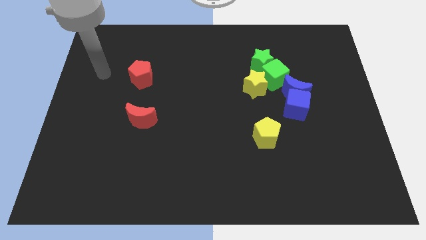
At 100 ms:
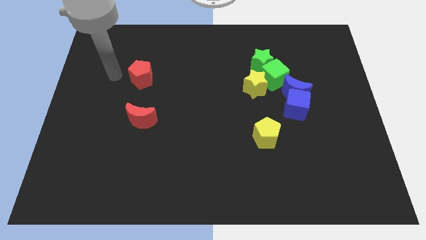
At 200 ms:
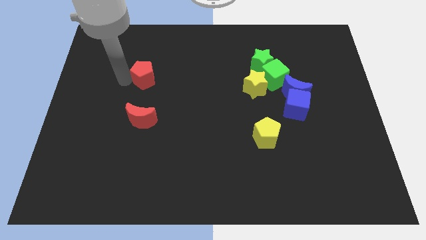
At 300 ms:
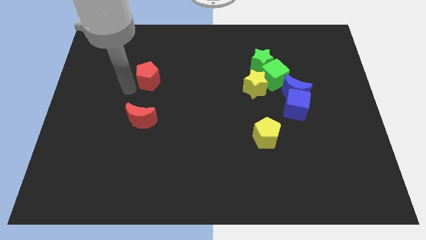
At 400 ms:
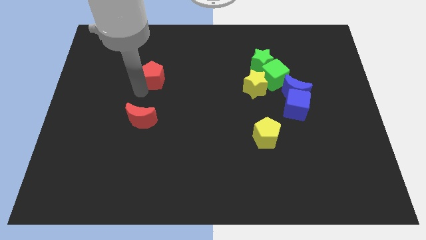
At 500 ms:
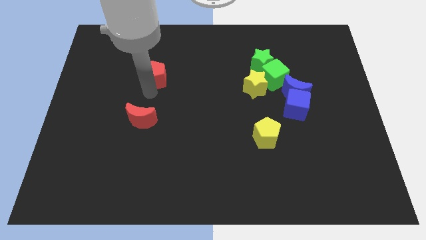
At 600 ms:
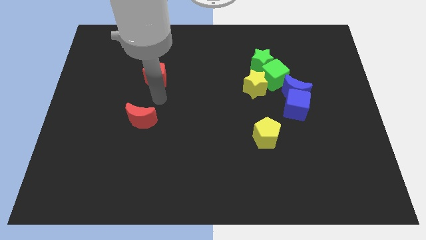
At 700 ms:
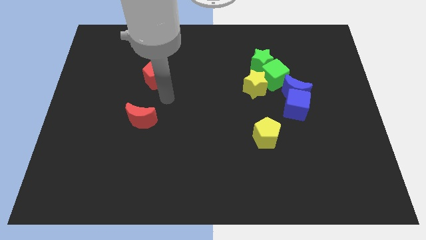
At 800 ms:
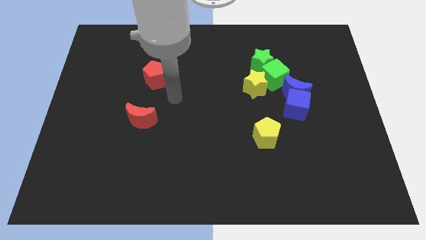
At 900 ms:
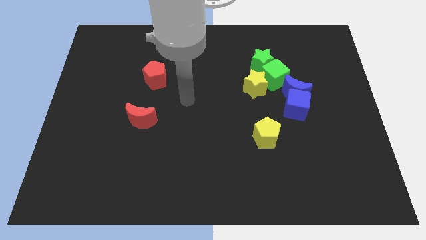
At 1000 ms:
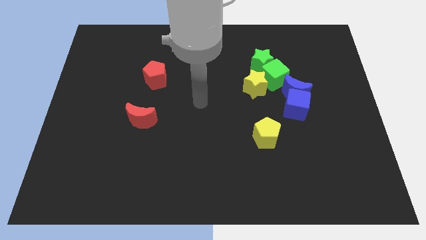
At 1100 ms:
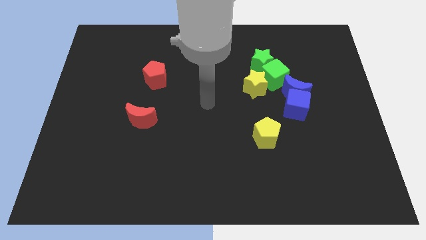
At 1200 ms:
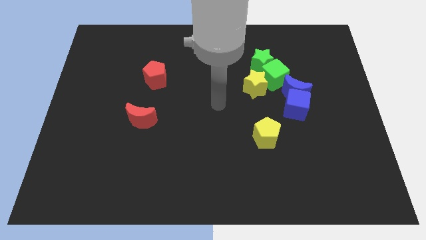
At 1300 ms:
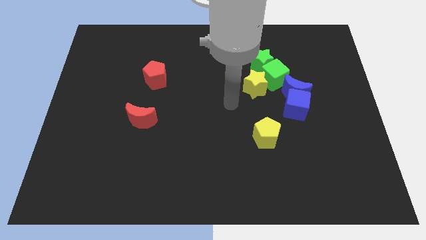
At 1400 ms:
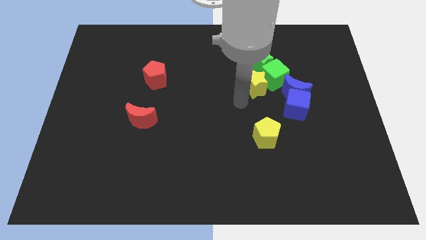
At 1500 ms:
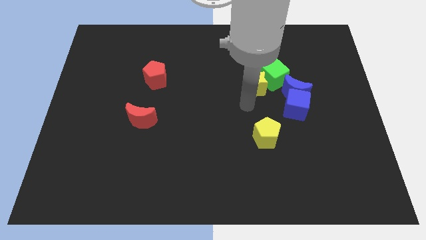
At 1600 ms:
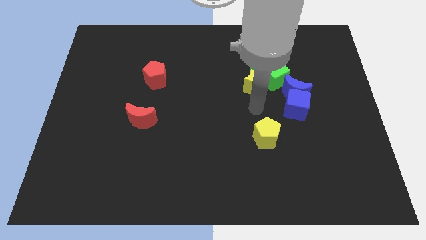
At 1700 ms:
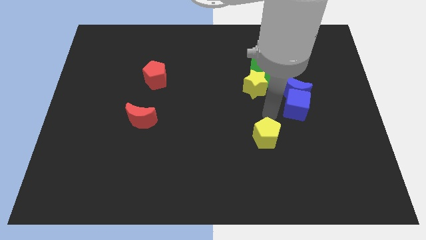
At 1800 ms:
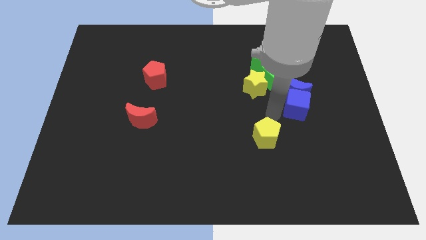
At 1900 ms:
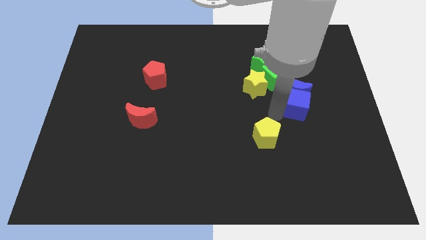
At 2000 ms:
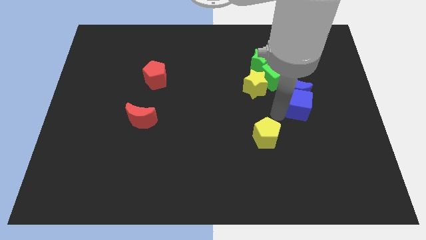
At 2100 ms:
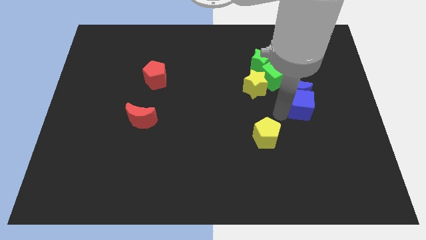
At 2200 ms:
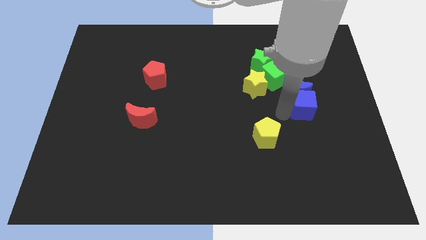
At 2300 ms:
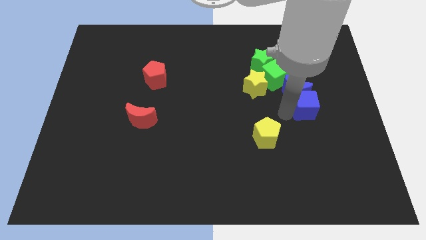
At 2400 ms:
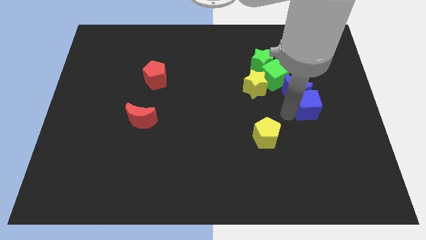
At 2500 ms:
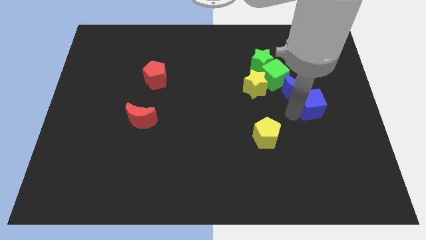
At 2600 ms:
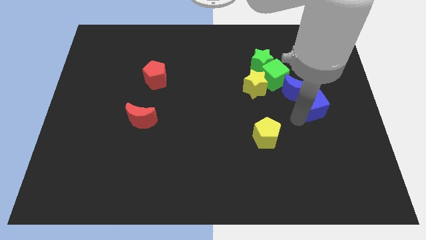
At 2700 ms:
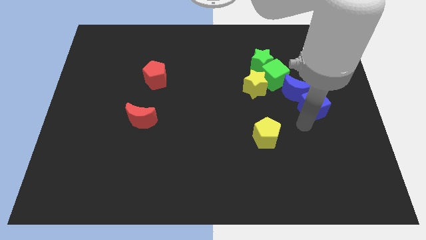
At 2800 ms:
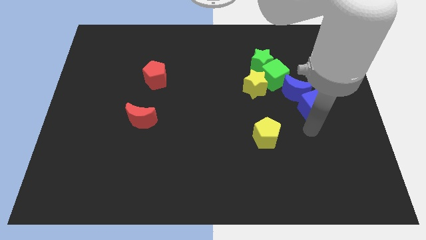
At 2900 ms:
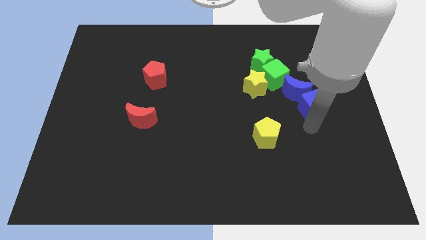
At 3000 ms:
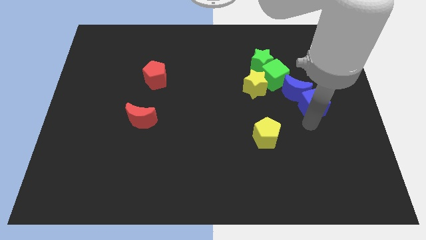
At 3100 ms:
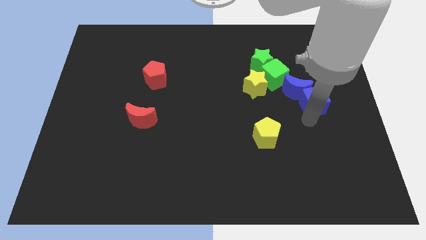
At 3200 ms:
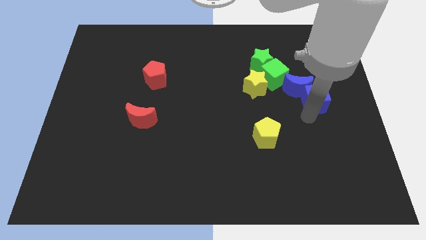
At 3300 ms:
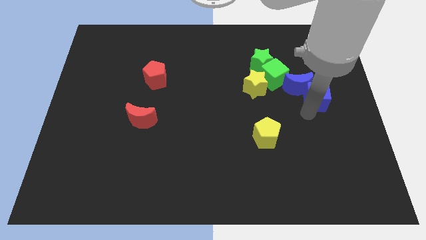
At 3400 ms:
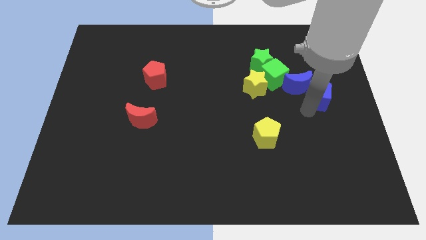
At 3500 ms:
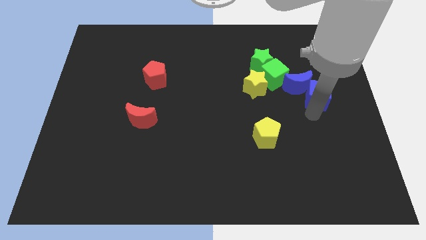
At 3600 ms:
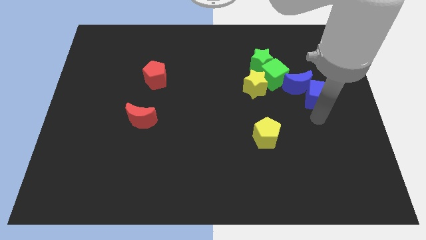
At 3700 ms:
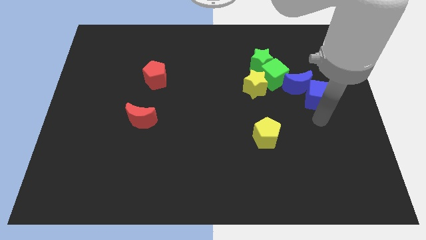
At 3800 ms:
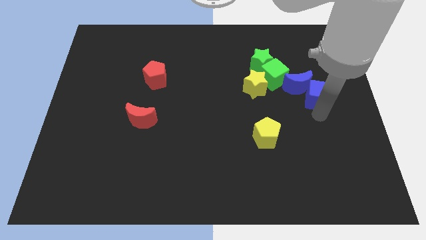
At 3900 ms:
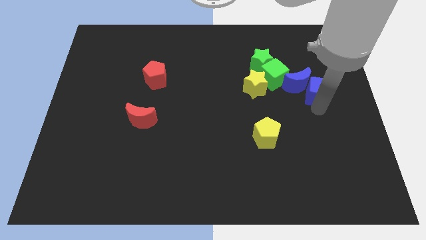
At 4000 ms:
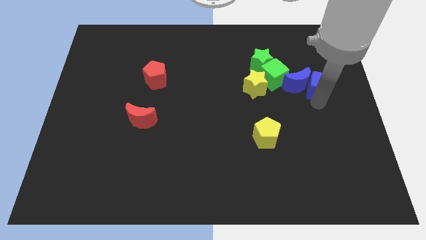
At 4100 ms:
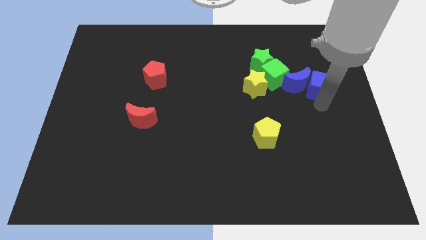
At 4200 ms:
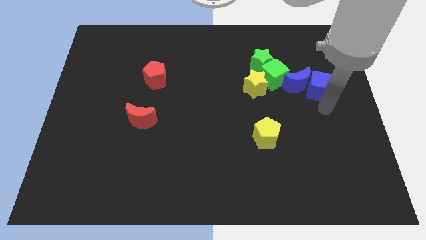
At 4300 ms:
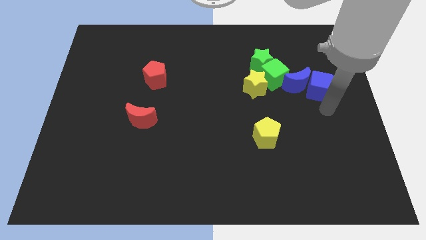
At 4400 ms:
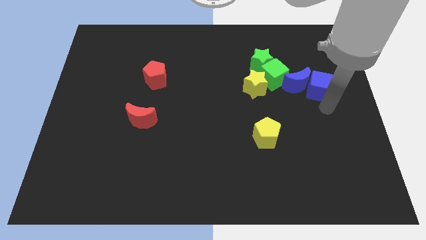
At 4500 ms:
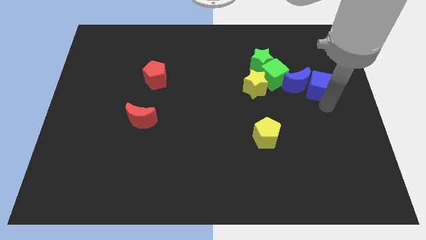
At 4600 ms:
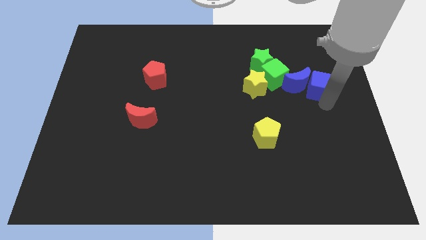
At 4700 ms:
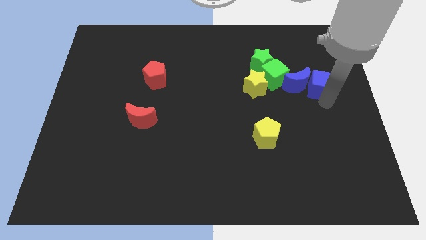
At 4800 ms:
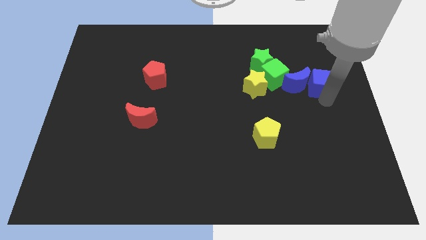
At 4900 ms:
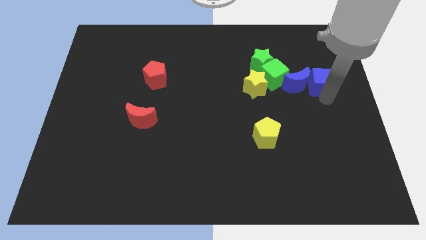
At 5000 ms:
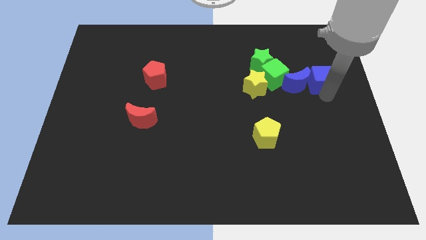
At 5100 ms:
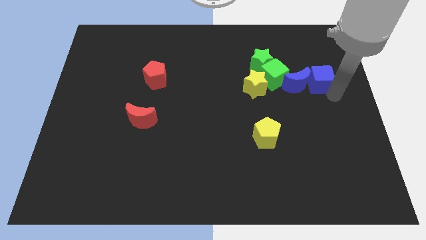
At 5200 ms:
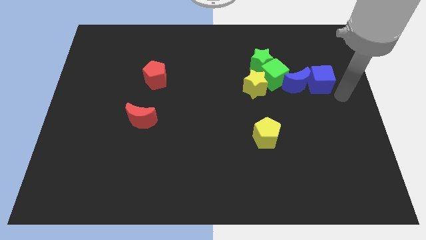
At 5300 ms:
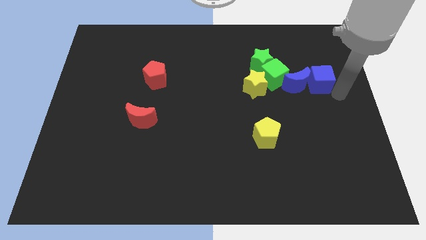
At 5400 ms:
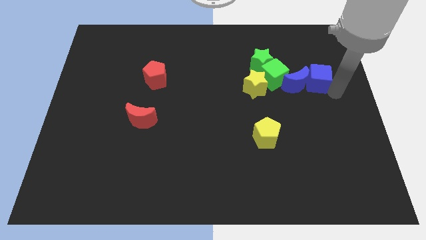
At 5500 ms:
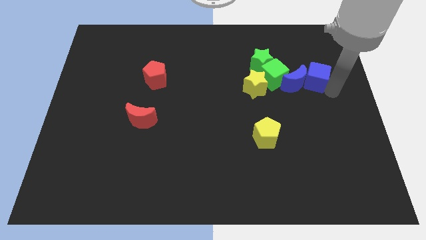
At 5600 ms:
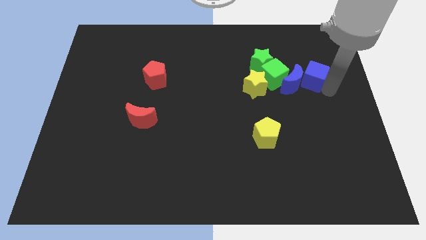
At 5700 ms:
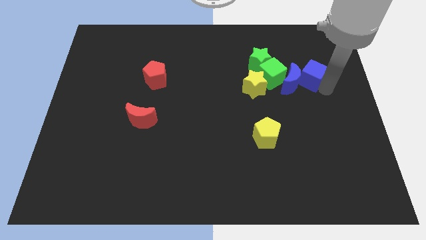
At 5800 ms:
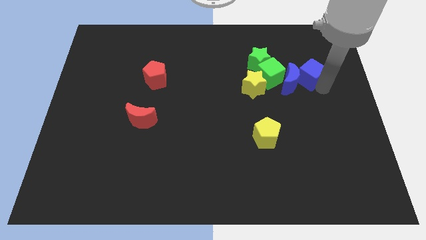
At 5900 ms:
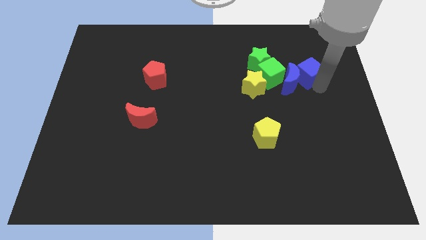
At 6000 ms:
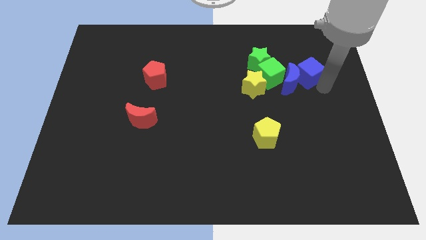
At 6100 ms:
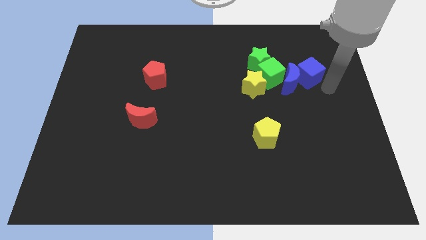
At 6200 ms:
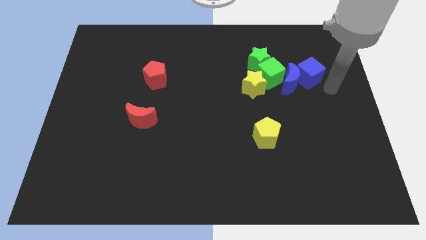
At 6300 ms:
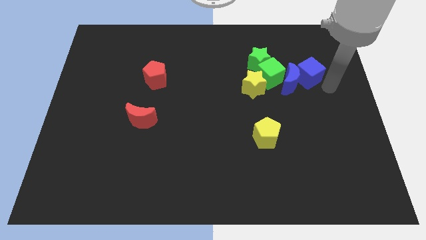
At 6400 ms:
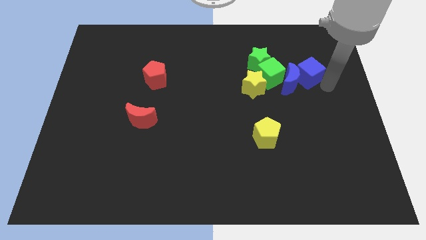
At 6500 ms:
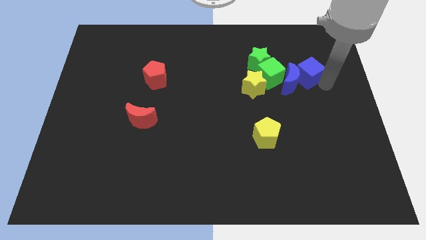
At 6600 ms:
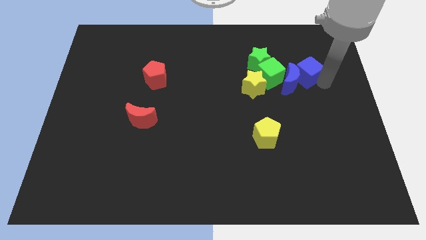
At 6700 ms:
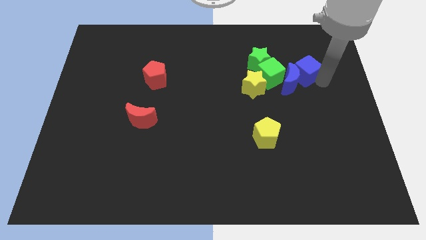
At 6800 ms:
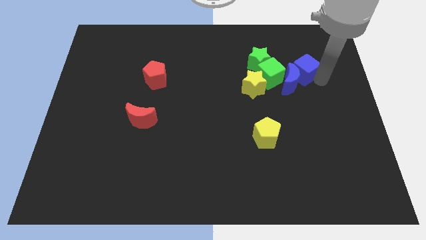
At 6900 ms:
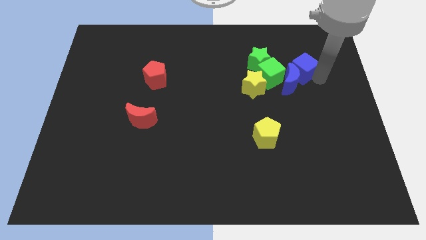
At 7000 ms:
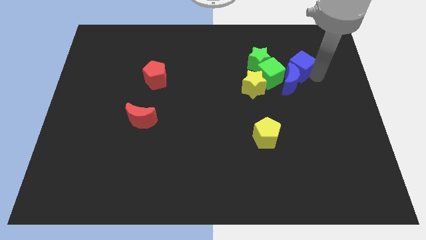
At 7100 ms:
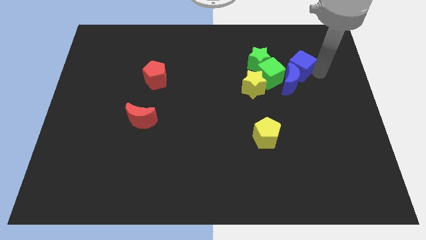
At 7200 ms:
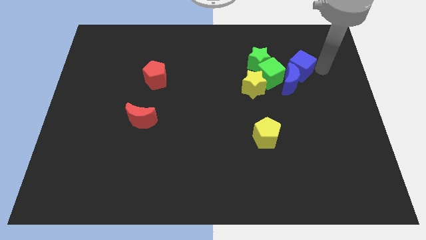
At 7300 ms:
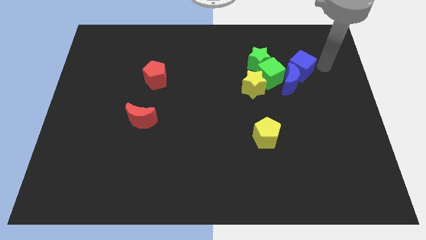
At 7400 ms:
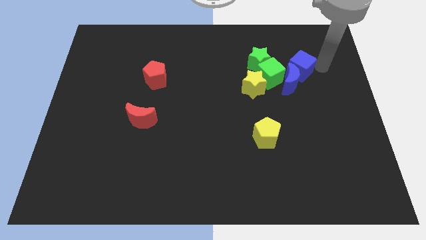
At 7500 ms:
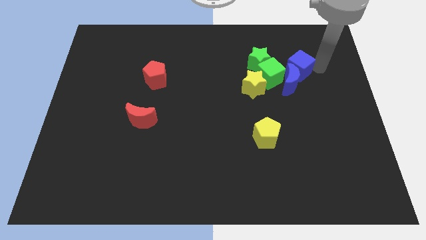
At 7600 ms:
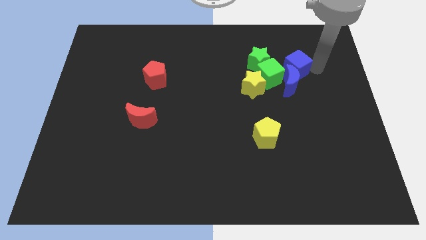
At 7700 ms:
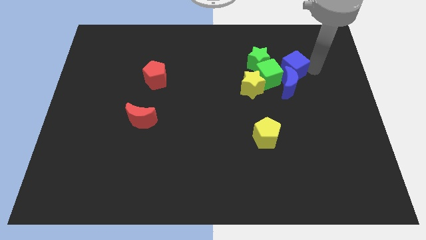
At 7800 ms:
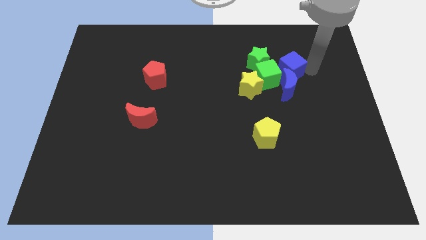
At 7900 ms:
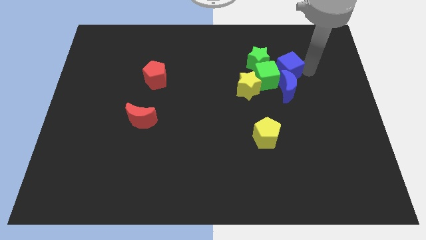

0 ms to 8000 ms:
slide the blue cube to the top right side of the yellow star

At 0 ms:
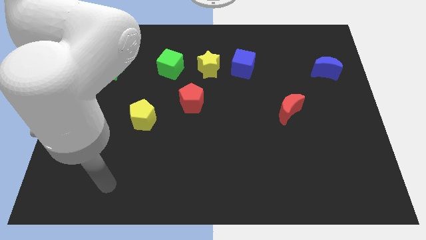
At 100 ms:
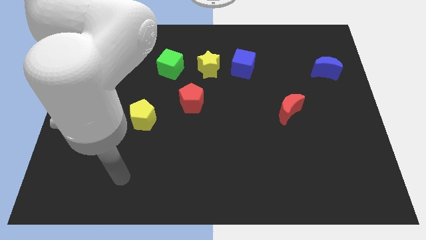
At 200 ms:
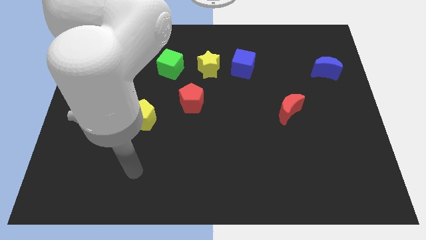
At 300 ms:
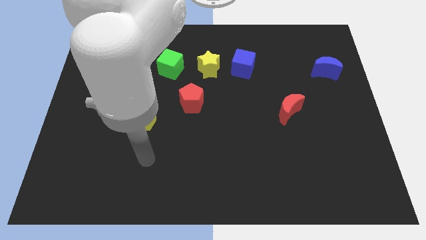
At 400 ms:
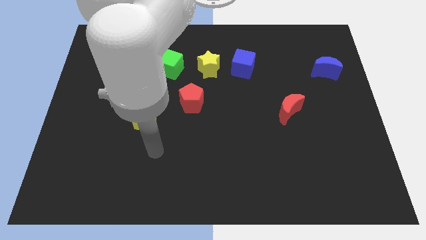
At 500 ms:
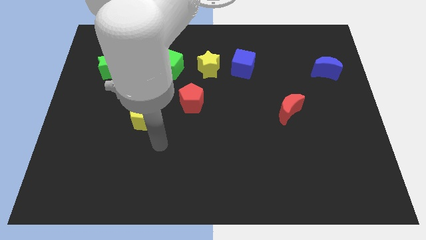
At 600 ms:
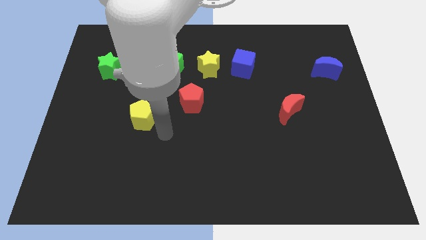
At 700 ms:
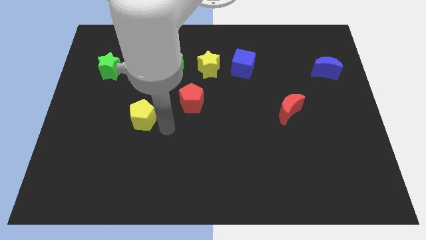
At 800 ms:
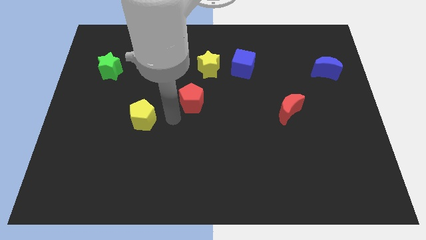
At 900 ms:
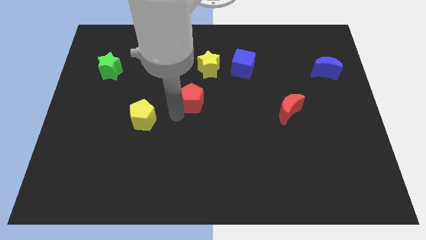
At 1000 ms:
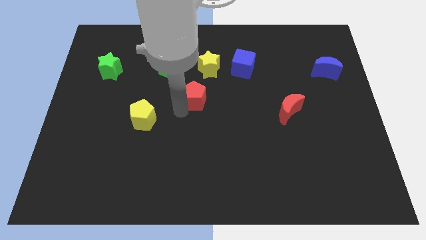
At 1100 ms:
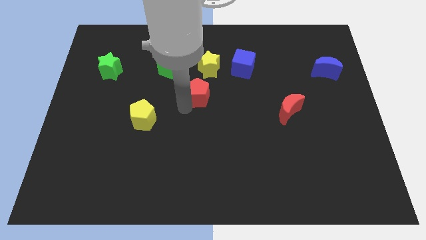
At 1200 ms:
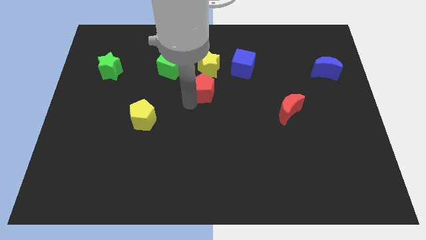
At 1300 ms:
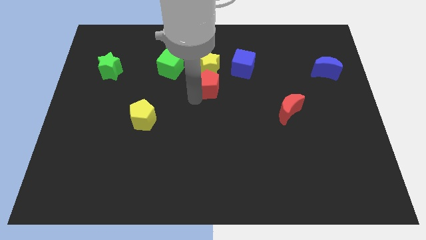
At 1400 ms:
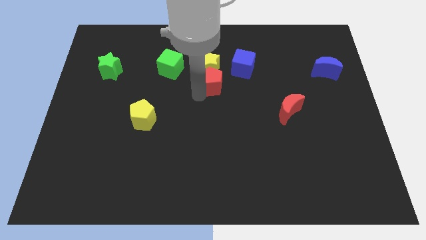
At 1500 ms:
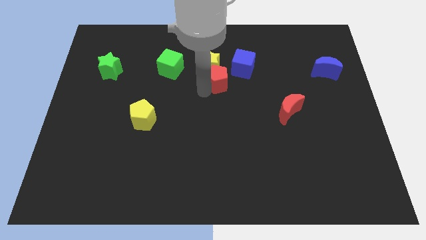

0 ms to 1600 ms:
push the red pentagon to the right side of the green cube
